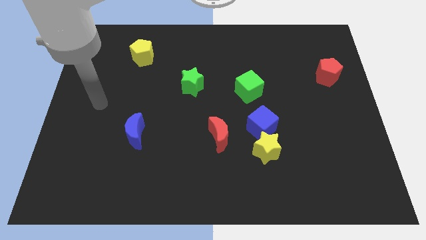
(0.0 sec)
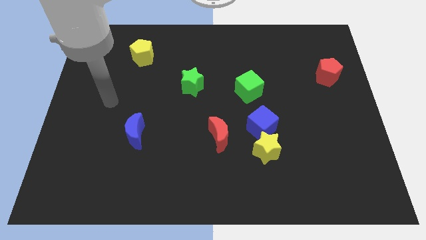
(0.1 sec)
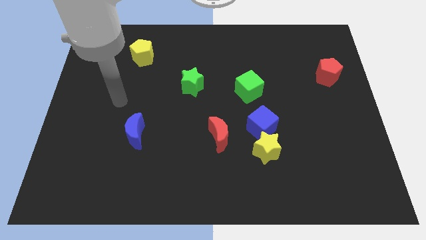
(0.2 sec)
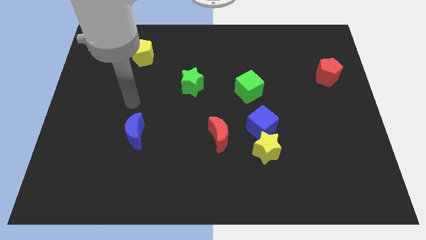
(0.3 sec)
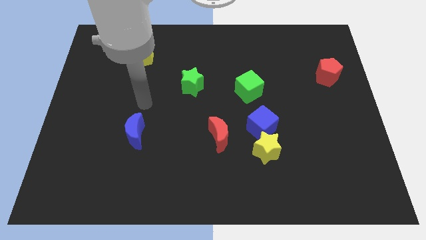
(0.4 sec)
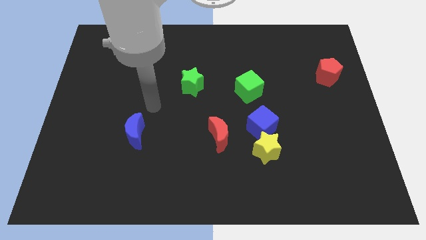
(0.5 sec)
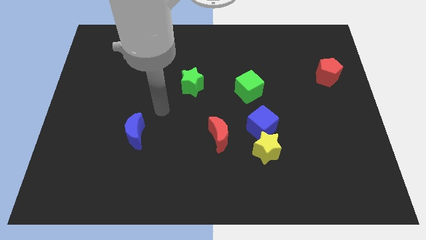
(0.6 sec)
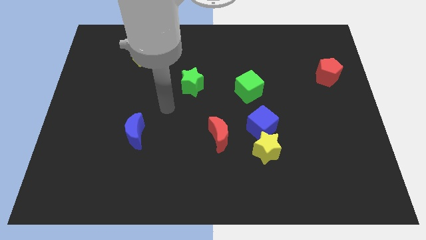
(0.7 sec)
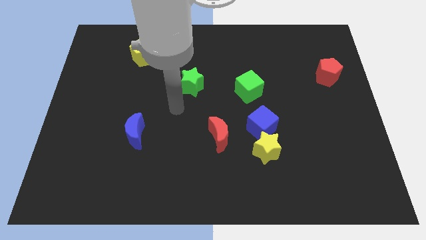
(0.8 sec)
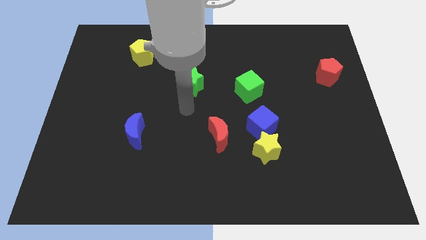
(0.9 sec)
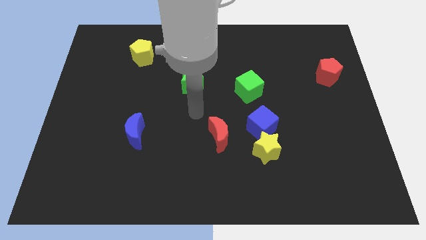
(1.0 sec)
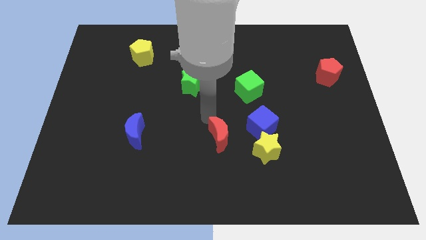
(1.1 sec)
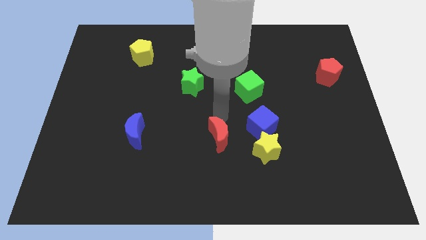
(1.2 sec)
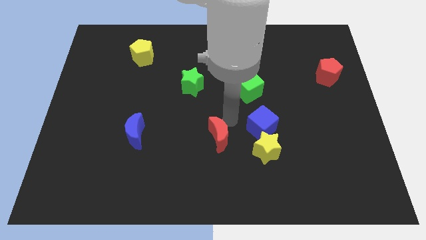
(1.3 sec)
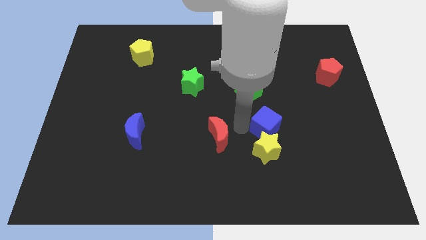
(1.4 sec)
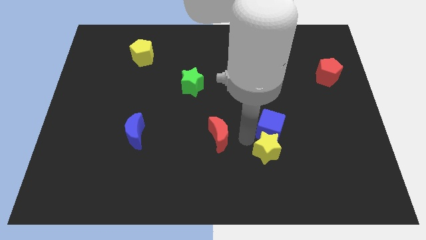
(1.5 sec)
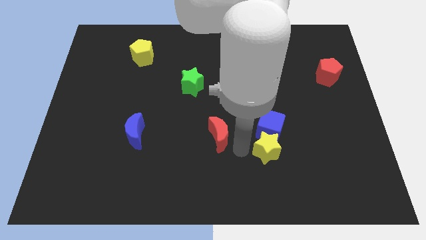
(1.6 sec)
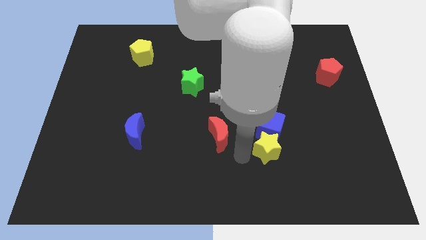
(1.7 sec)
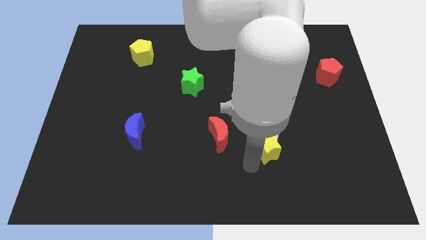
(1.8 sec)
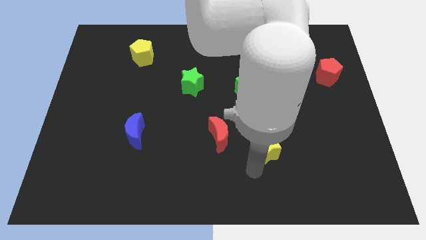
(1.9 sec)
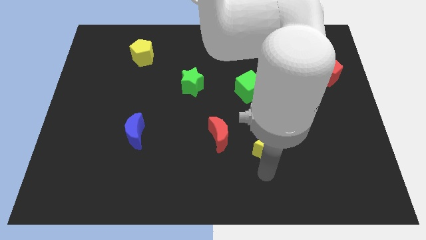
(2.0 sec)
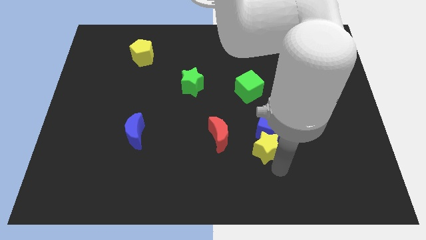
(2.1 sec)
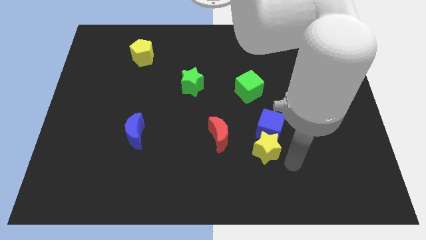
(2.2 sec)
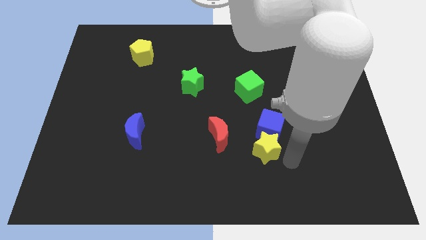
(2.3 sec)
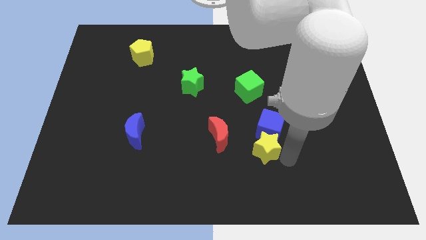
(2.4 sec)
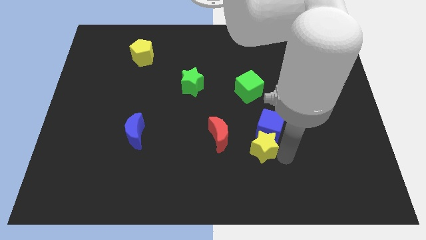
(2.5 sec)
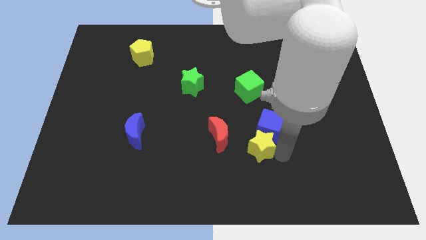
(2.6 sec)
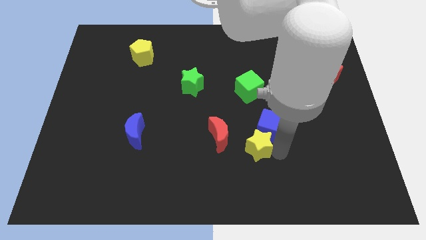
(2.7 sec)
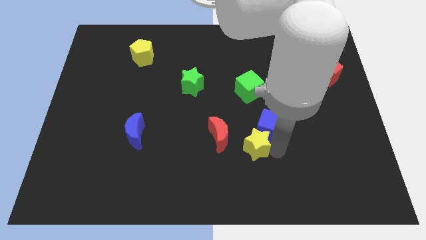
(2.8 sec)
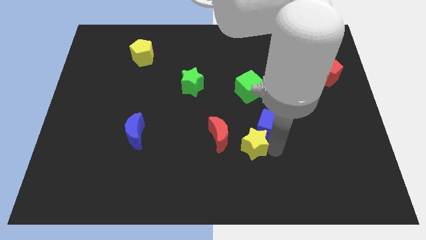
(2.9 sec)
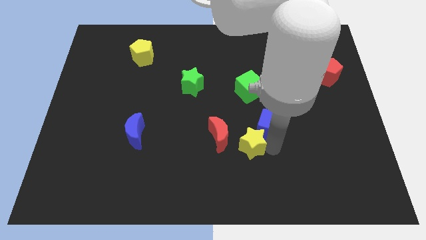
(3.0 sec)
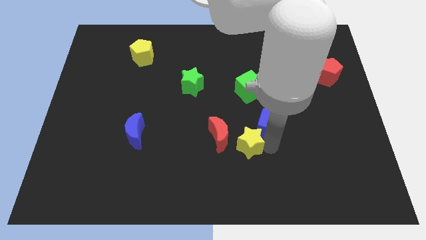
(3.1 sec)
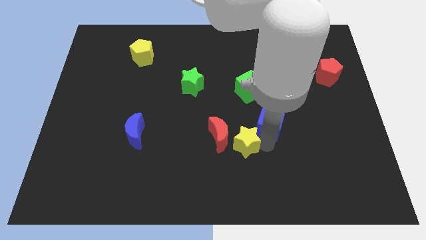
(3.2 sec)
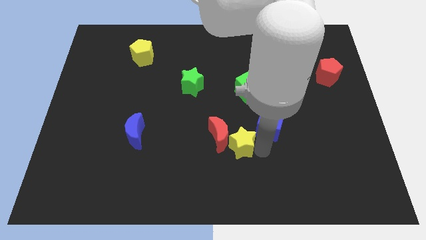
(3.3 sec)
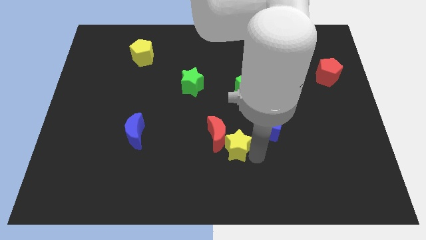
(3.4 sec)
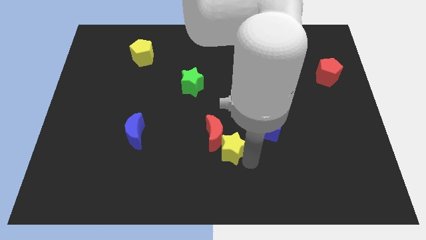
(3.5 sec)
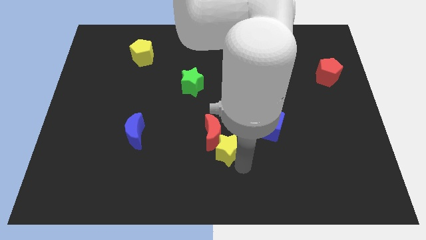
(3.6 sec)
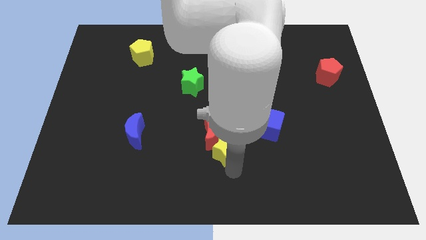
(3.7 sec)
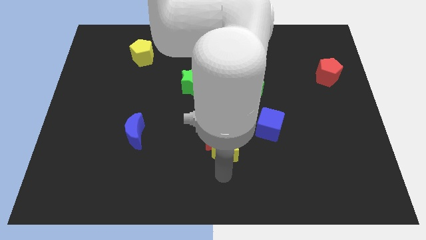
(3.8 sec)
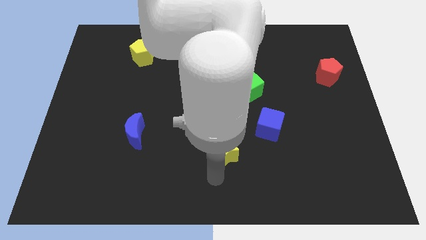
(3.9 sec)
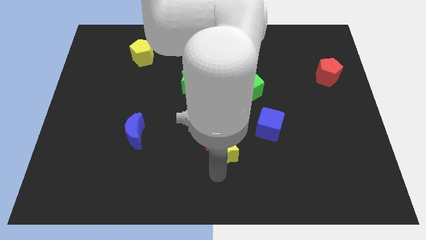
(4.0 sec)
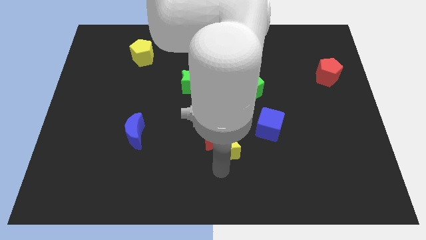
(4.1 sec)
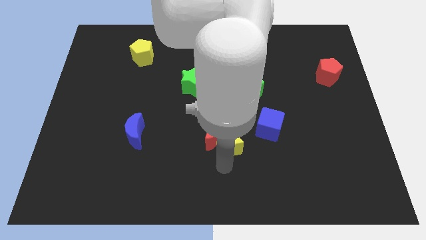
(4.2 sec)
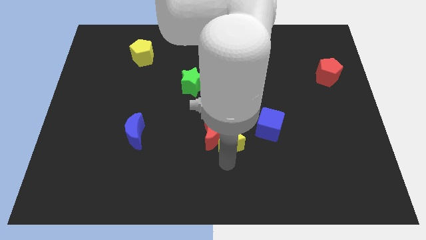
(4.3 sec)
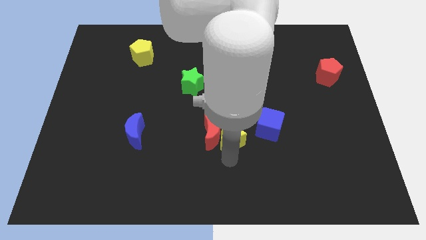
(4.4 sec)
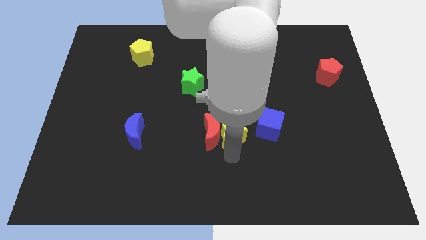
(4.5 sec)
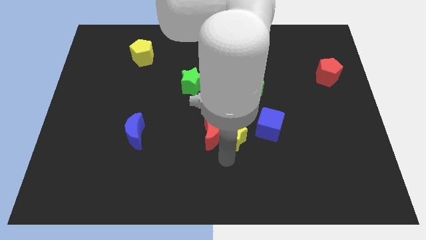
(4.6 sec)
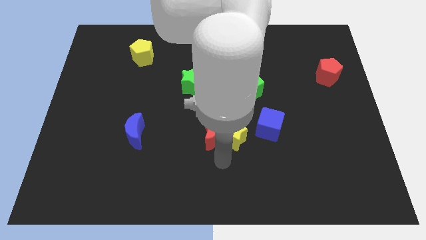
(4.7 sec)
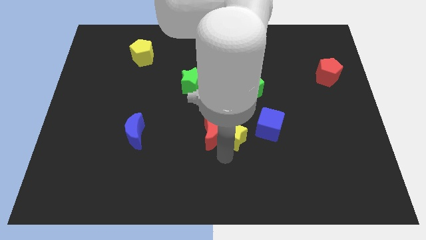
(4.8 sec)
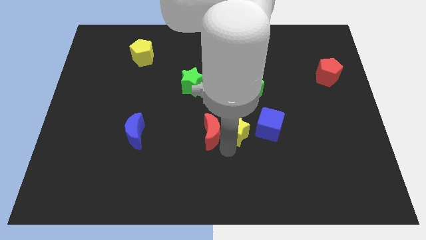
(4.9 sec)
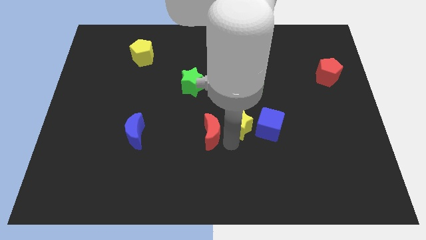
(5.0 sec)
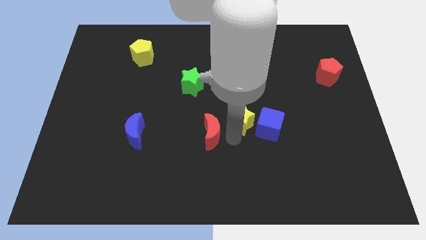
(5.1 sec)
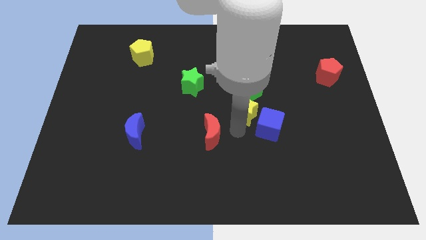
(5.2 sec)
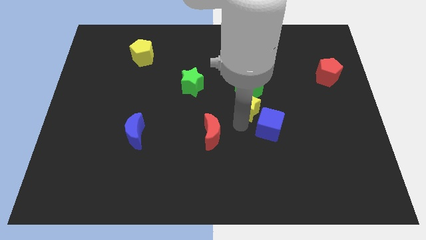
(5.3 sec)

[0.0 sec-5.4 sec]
push the yellow star to the green cube

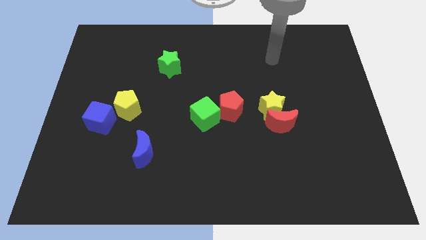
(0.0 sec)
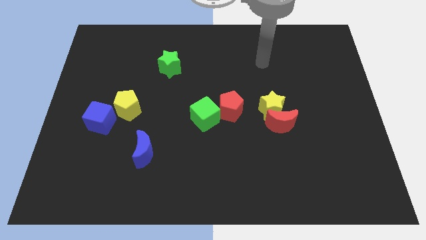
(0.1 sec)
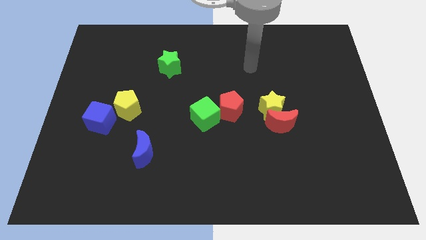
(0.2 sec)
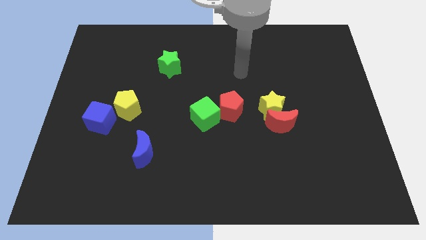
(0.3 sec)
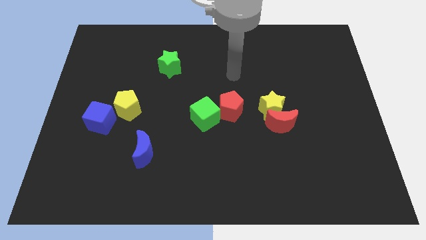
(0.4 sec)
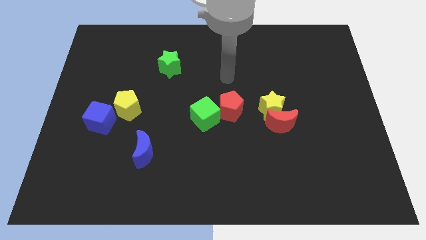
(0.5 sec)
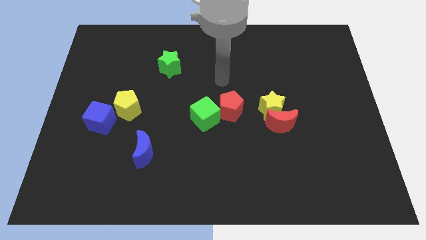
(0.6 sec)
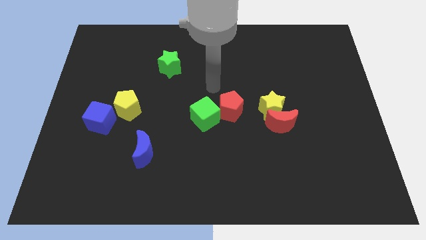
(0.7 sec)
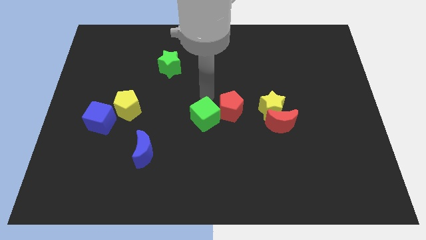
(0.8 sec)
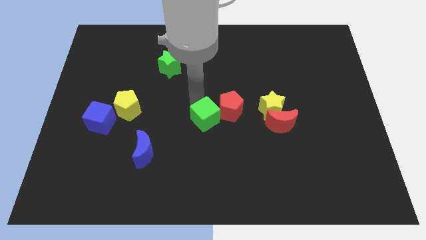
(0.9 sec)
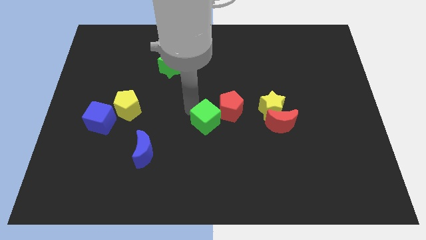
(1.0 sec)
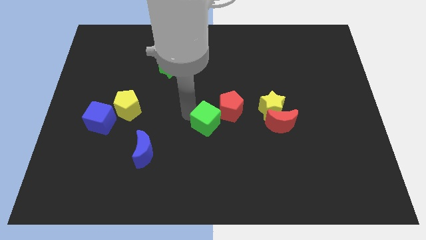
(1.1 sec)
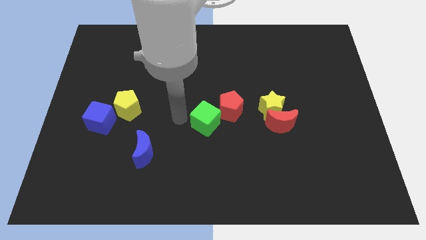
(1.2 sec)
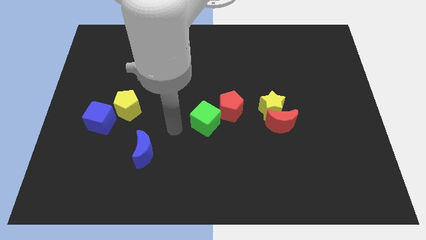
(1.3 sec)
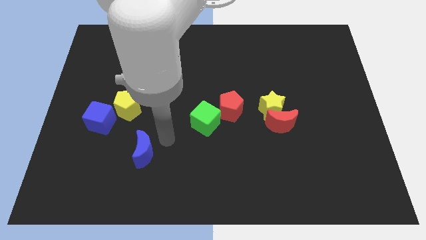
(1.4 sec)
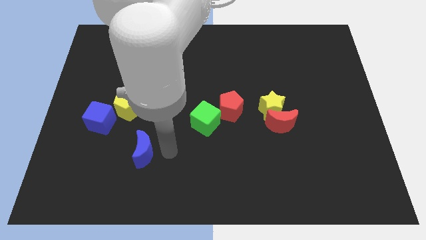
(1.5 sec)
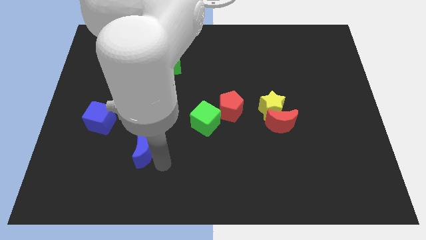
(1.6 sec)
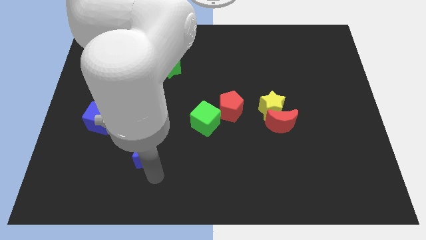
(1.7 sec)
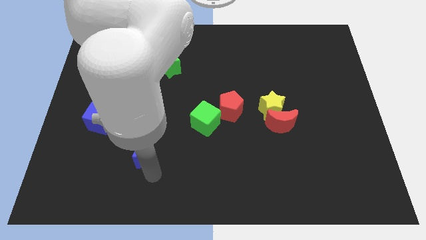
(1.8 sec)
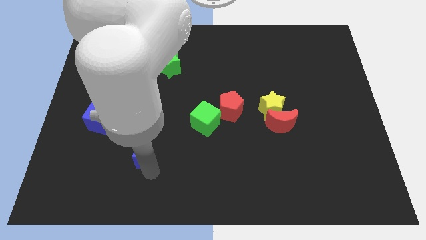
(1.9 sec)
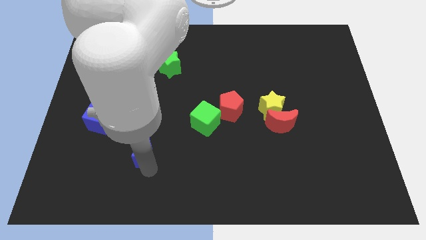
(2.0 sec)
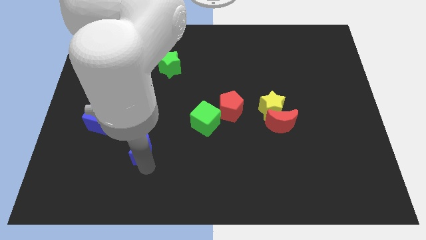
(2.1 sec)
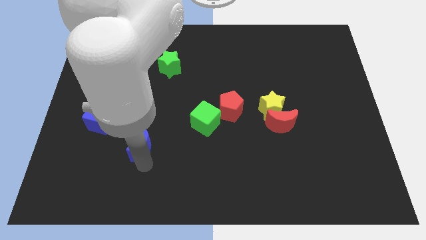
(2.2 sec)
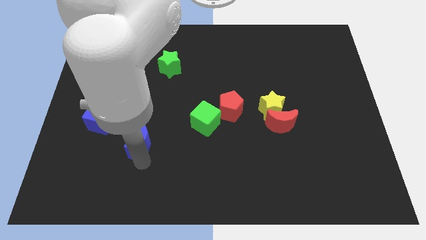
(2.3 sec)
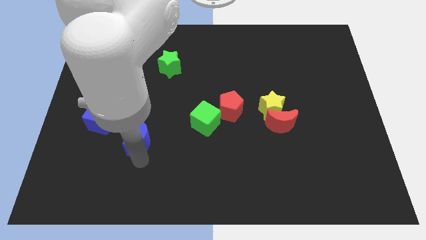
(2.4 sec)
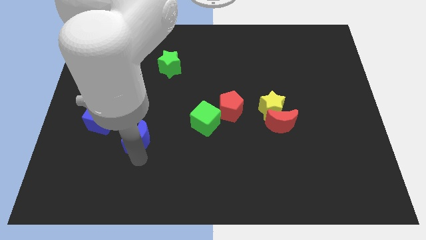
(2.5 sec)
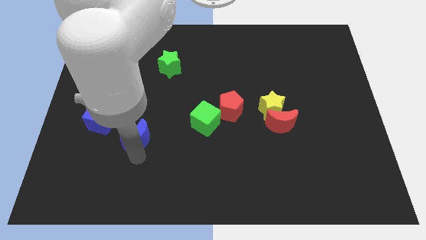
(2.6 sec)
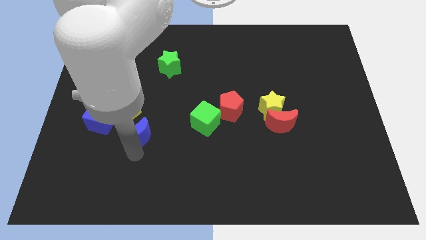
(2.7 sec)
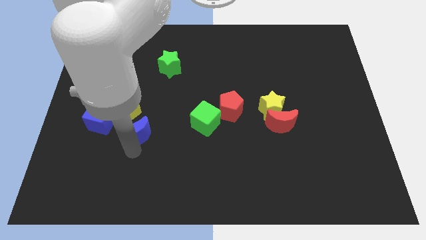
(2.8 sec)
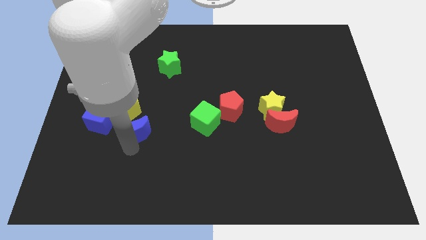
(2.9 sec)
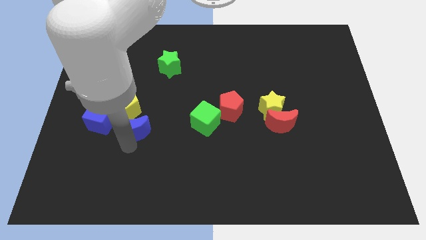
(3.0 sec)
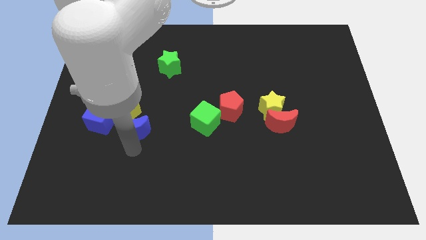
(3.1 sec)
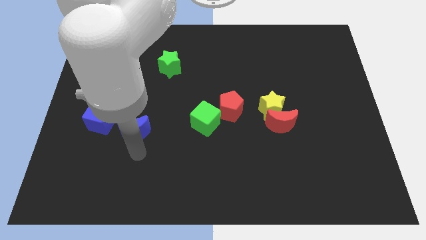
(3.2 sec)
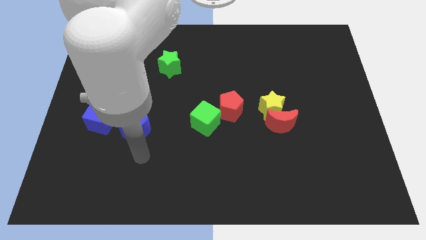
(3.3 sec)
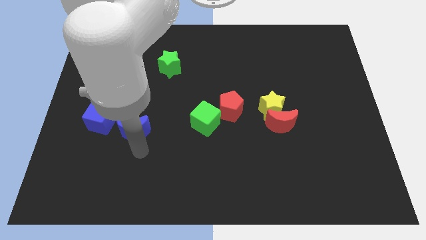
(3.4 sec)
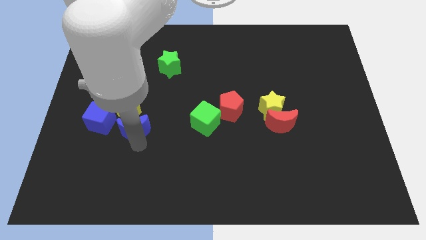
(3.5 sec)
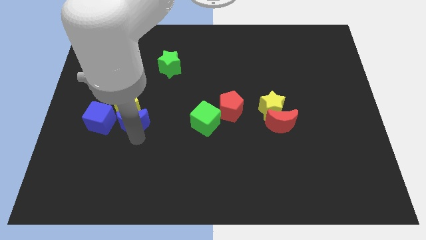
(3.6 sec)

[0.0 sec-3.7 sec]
put the blue moon close to the yellow pentagon
